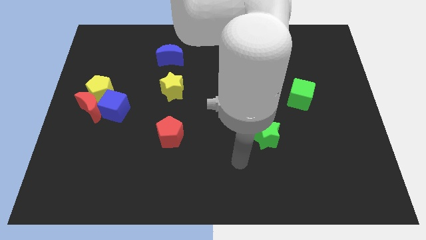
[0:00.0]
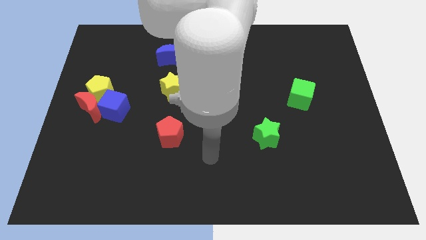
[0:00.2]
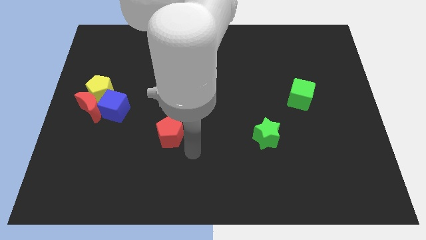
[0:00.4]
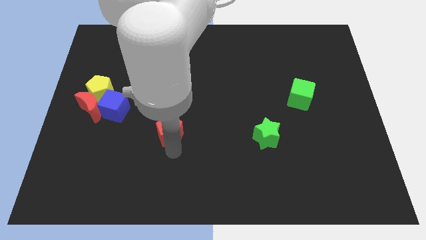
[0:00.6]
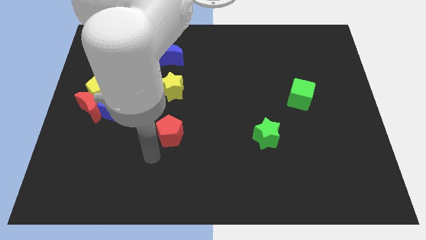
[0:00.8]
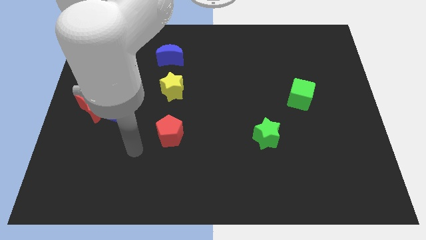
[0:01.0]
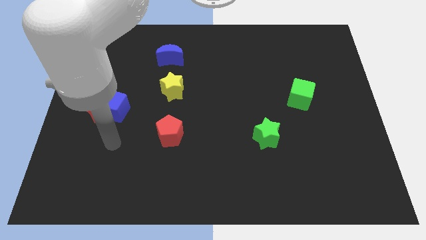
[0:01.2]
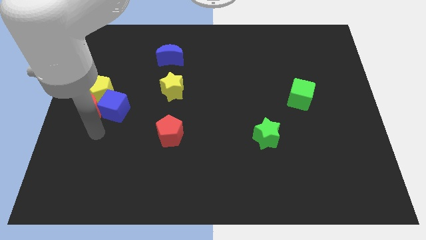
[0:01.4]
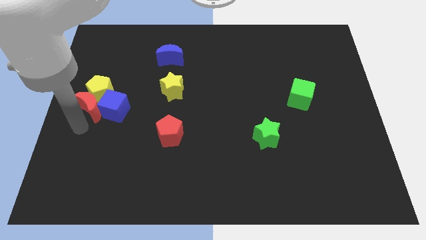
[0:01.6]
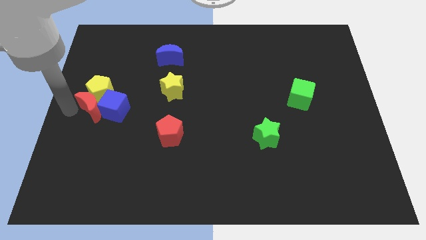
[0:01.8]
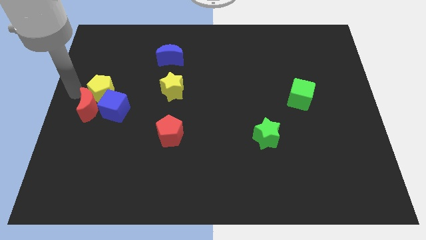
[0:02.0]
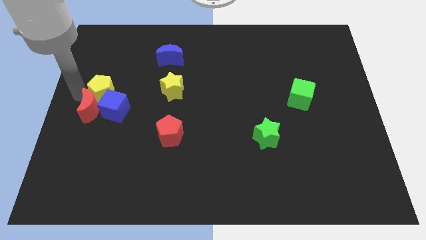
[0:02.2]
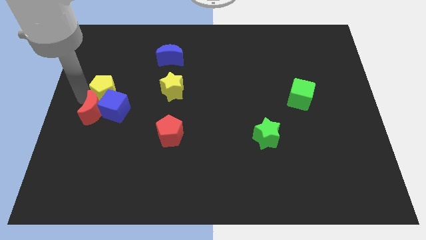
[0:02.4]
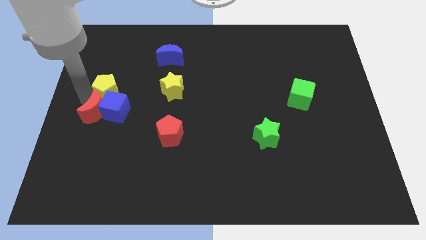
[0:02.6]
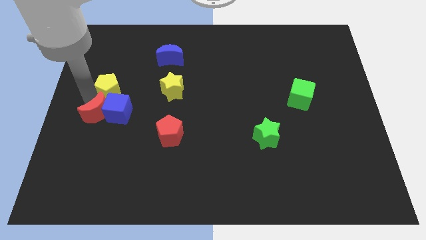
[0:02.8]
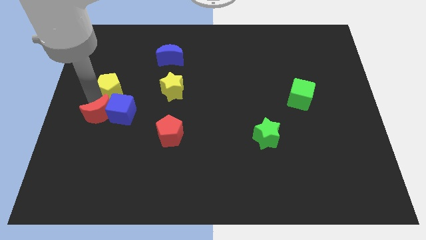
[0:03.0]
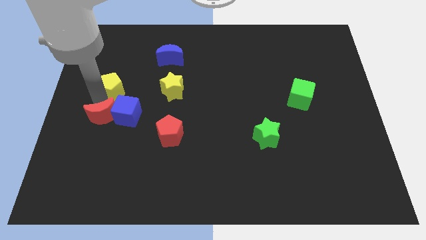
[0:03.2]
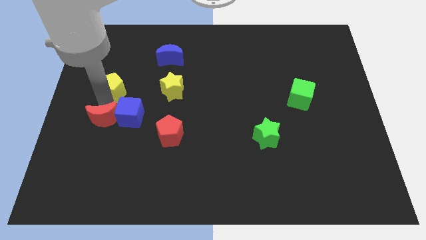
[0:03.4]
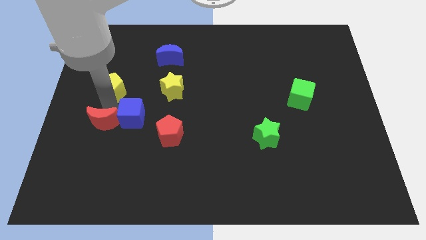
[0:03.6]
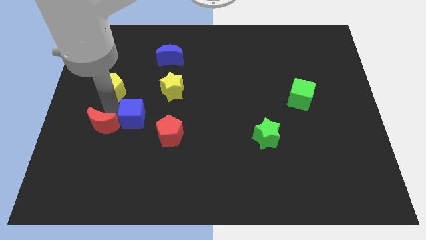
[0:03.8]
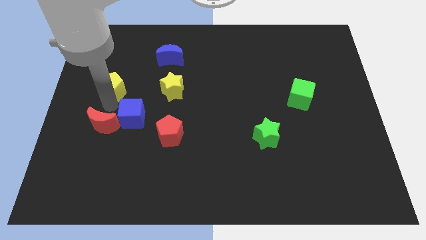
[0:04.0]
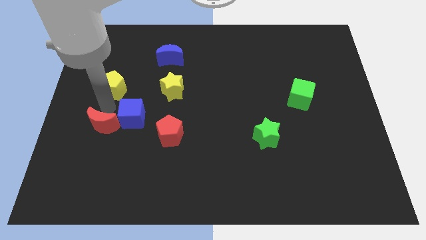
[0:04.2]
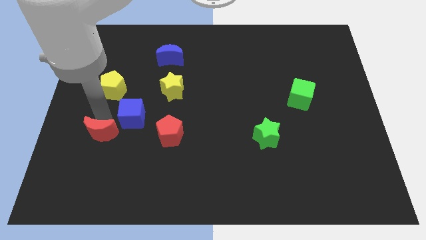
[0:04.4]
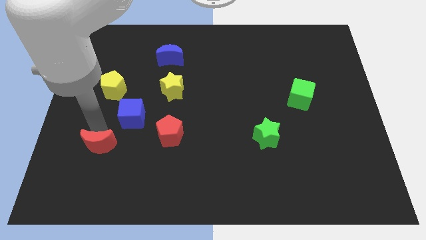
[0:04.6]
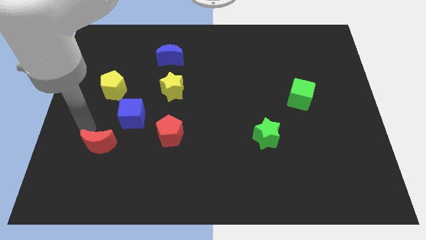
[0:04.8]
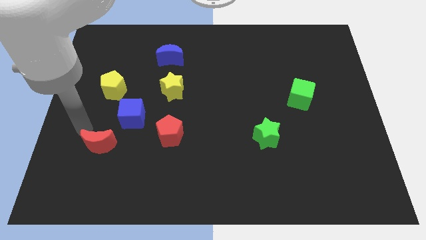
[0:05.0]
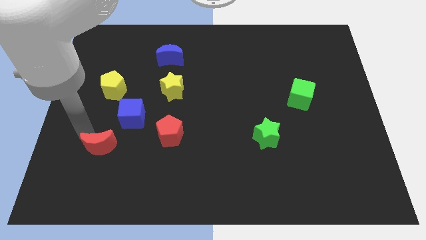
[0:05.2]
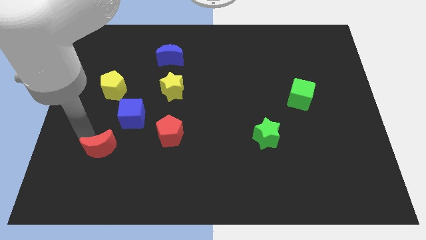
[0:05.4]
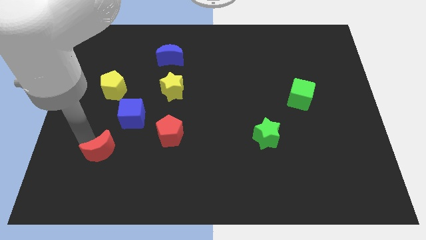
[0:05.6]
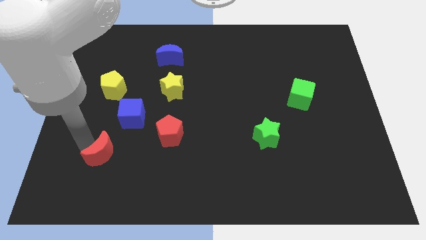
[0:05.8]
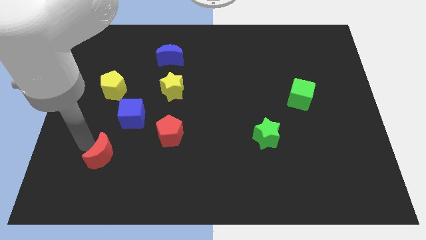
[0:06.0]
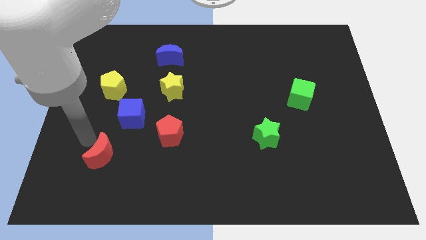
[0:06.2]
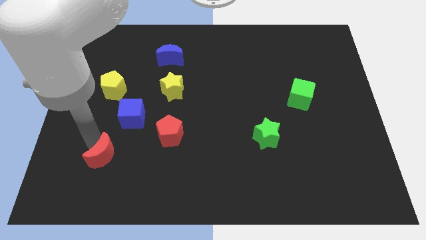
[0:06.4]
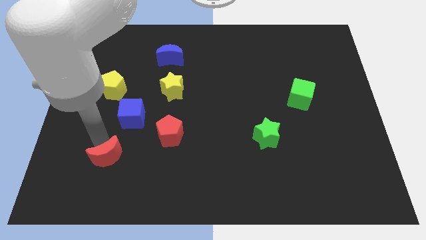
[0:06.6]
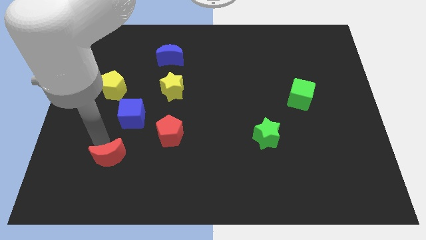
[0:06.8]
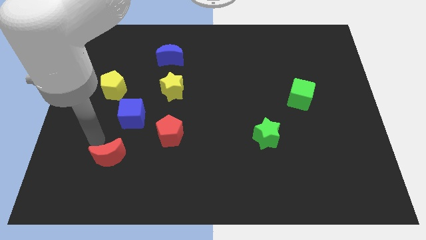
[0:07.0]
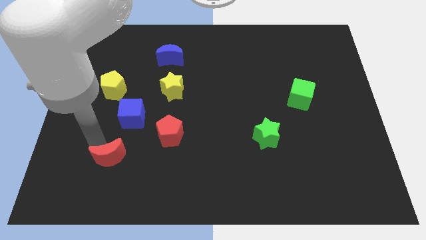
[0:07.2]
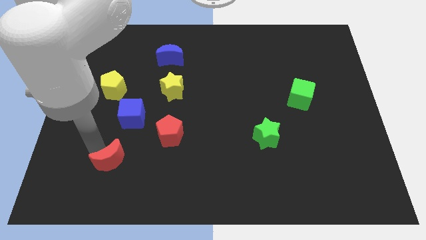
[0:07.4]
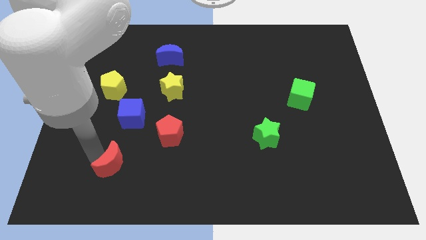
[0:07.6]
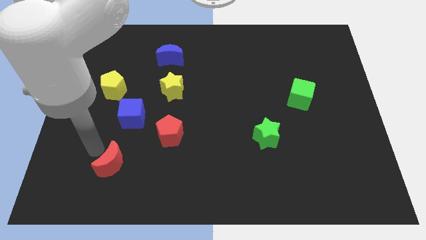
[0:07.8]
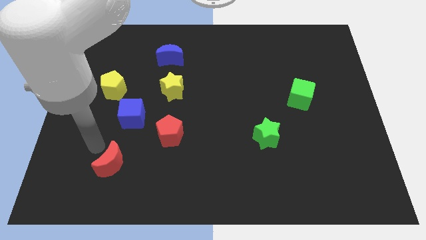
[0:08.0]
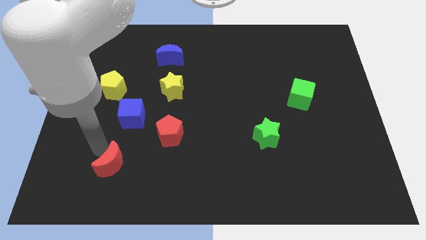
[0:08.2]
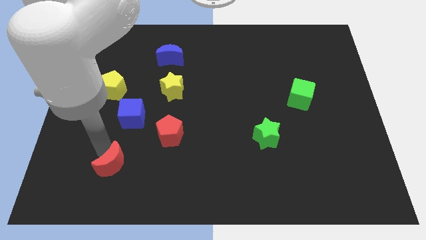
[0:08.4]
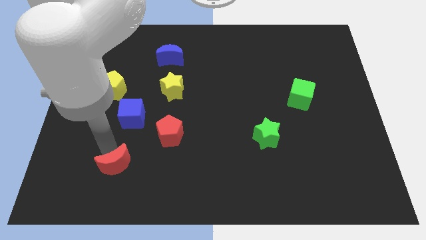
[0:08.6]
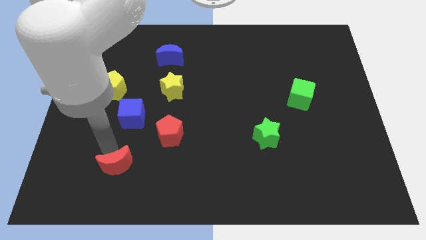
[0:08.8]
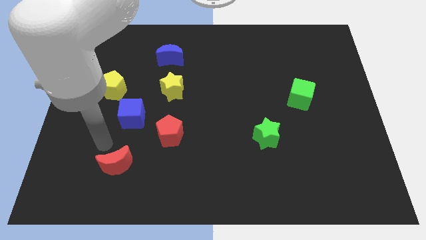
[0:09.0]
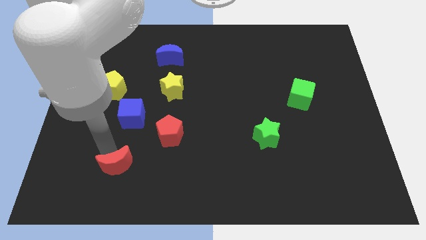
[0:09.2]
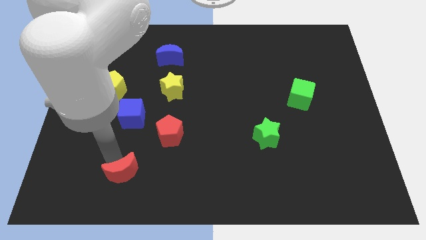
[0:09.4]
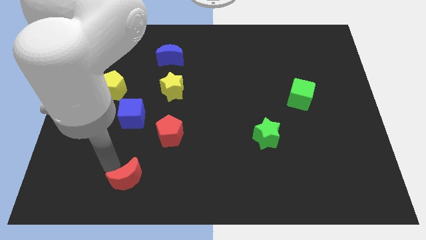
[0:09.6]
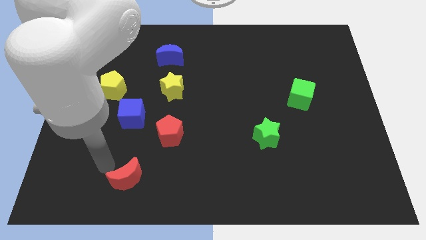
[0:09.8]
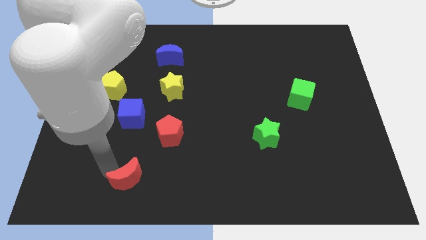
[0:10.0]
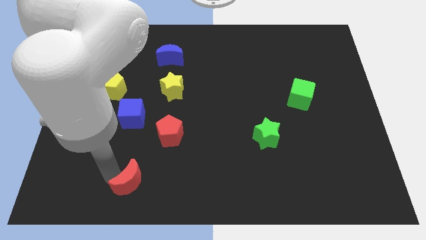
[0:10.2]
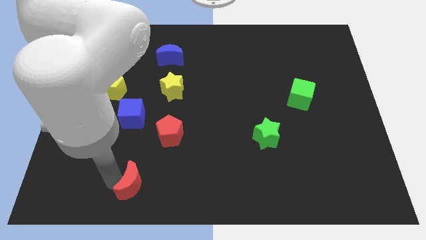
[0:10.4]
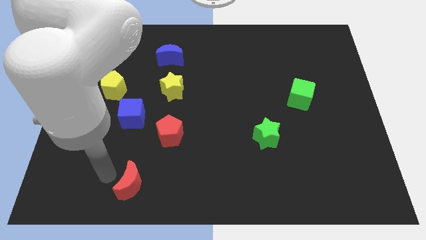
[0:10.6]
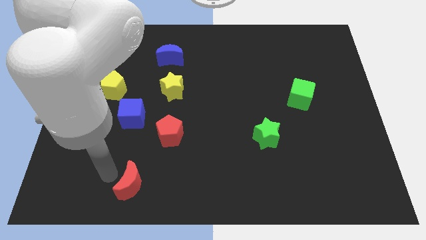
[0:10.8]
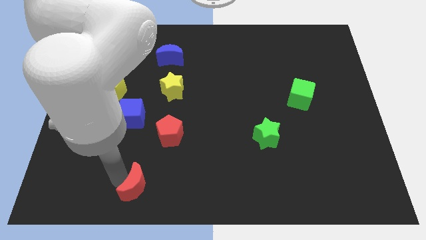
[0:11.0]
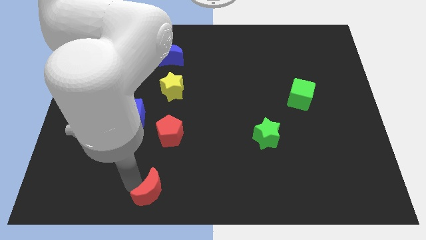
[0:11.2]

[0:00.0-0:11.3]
move the red moon to the bottom side

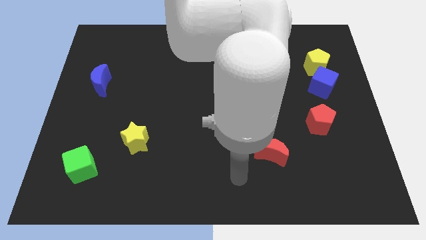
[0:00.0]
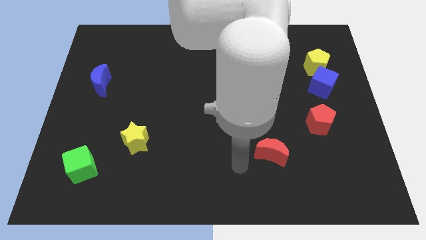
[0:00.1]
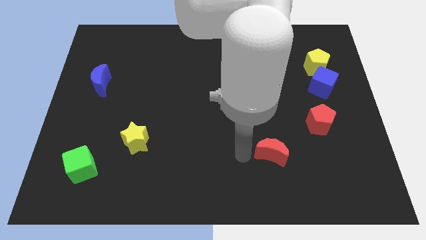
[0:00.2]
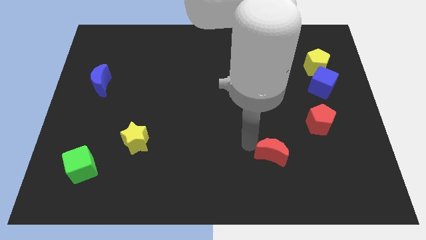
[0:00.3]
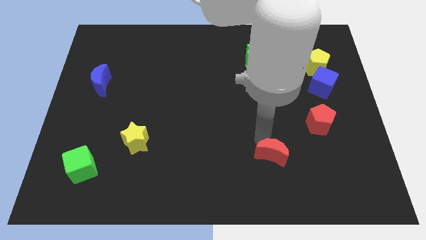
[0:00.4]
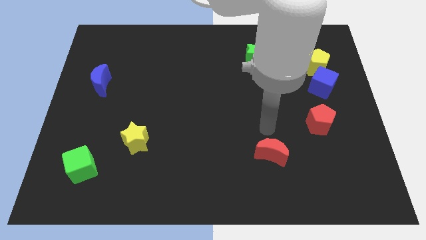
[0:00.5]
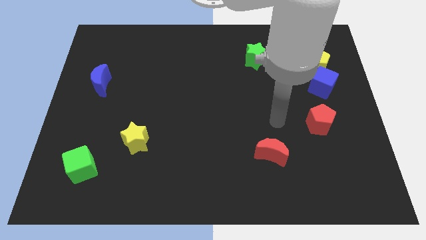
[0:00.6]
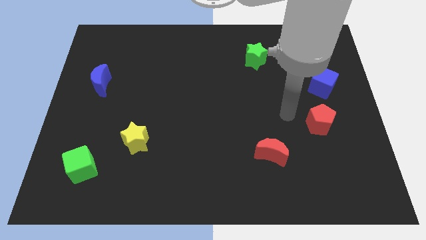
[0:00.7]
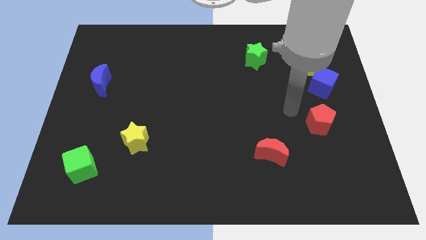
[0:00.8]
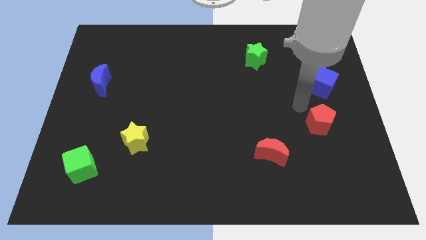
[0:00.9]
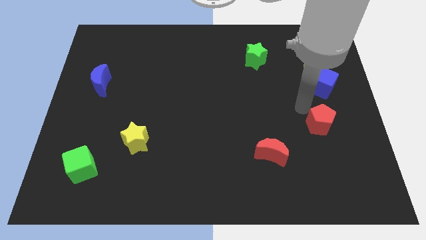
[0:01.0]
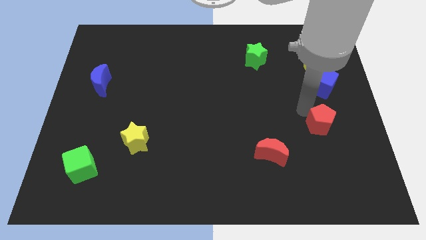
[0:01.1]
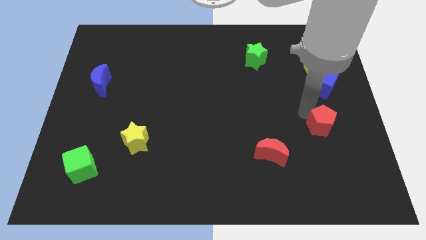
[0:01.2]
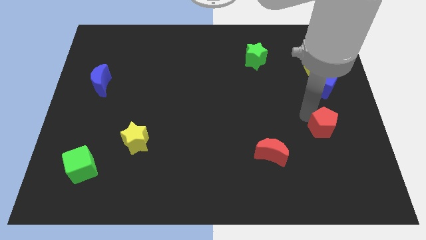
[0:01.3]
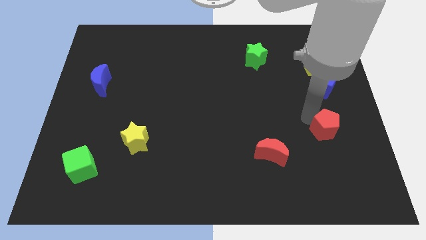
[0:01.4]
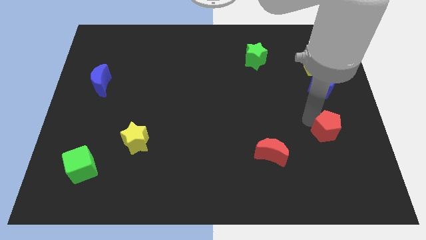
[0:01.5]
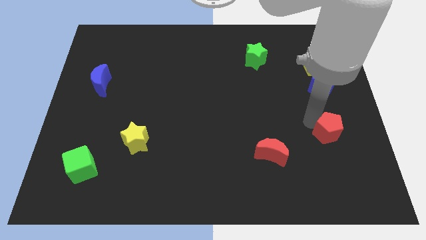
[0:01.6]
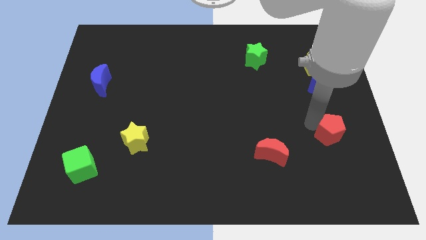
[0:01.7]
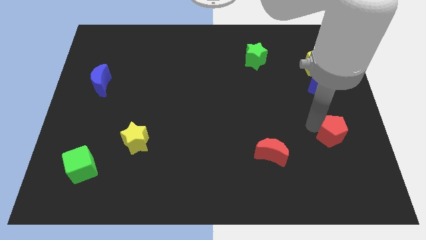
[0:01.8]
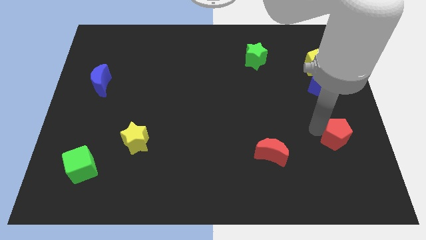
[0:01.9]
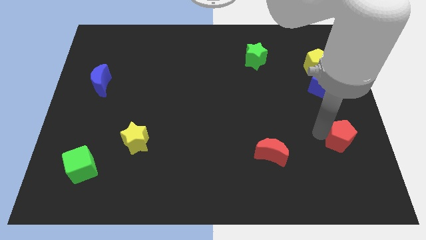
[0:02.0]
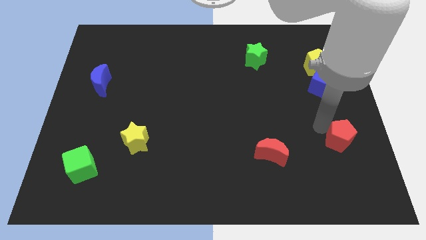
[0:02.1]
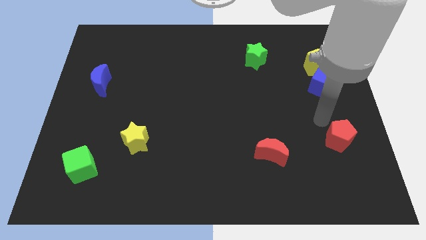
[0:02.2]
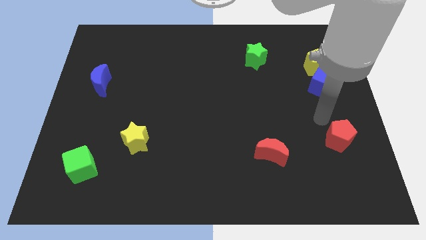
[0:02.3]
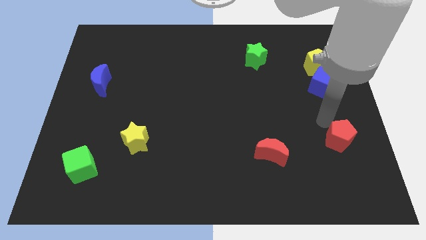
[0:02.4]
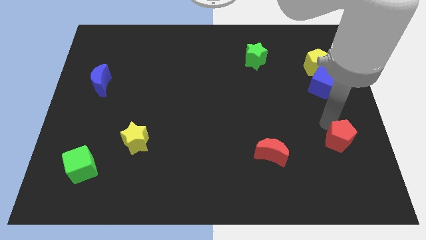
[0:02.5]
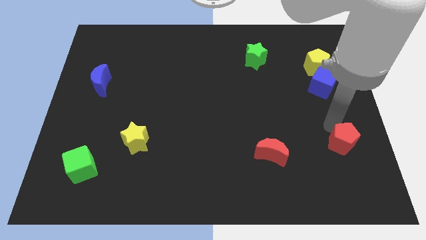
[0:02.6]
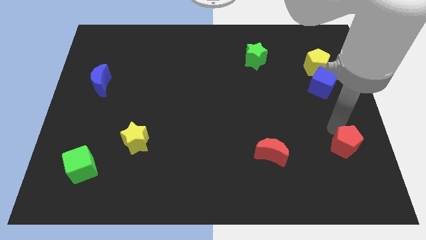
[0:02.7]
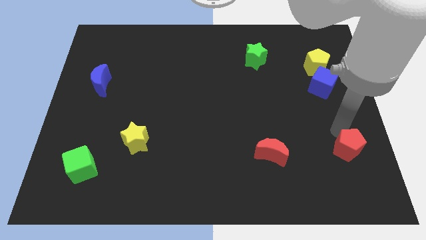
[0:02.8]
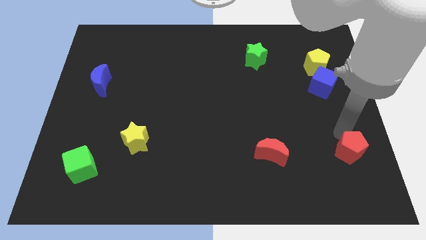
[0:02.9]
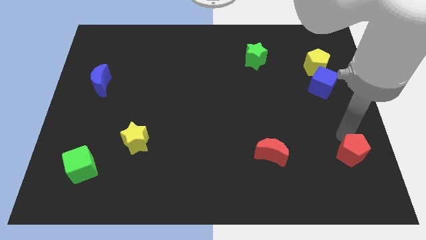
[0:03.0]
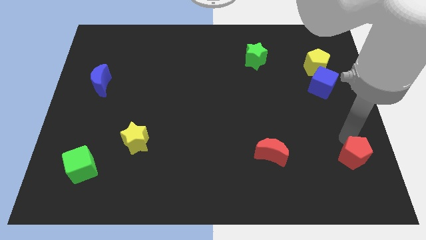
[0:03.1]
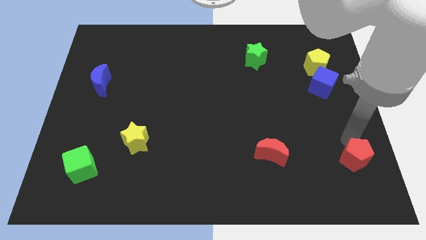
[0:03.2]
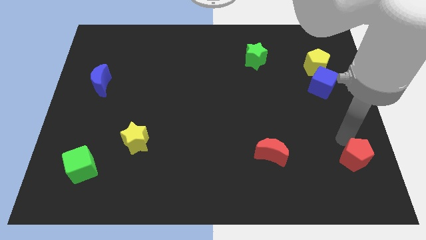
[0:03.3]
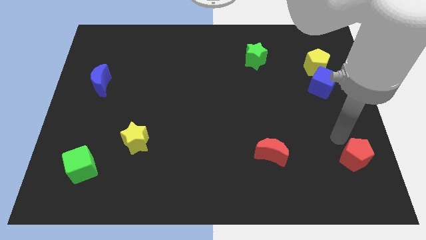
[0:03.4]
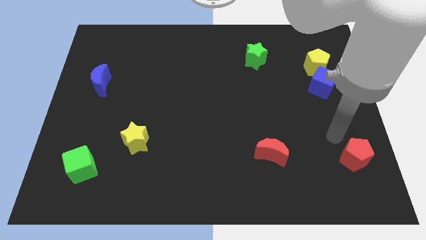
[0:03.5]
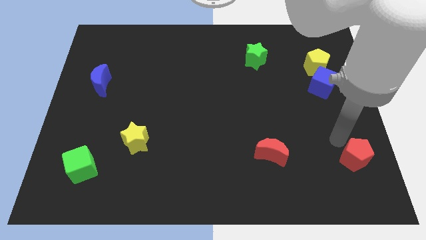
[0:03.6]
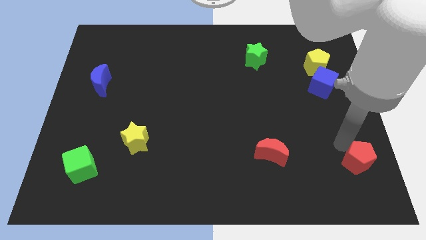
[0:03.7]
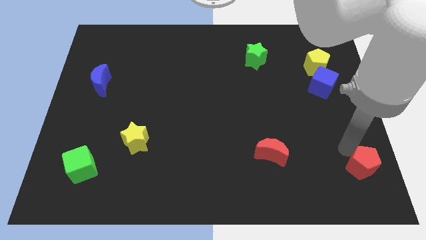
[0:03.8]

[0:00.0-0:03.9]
push the red pentagon to the lower right corner
